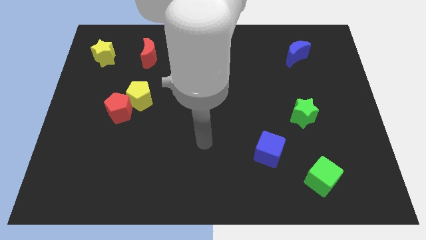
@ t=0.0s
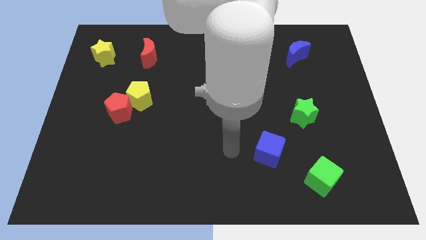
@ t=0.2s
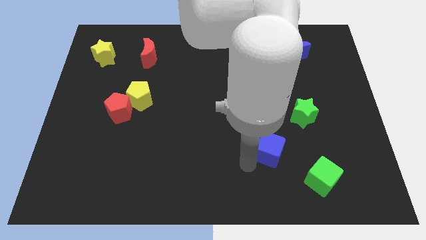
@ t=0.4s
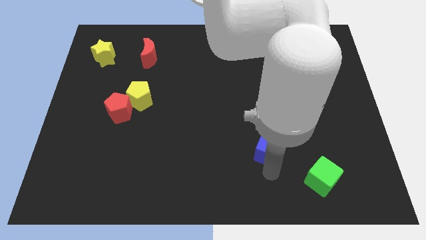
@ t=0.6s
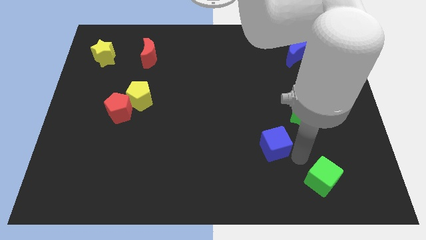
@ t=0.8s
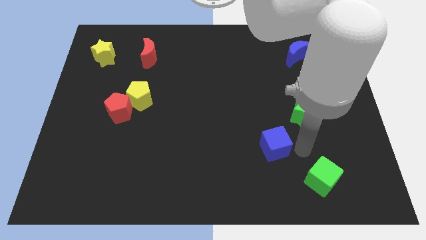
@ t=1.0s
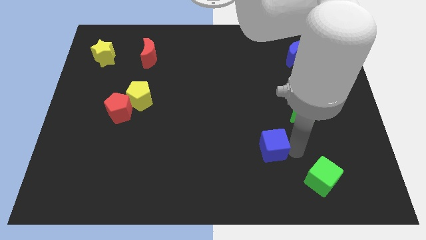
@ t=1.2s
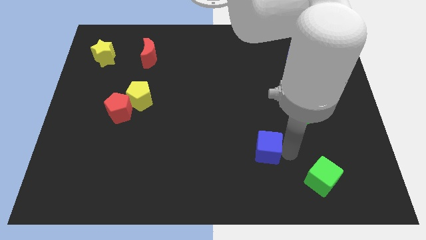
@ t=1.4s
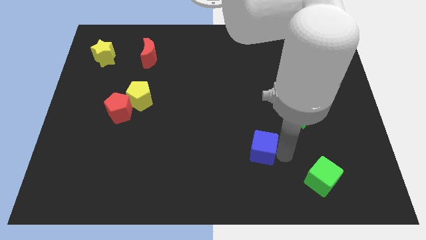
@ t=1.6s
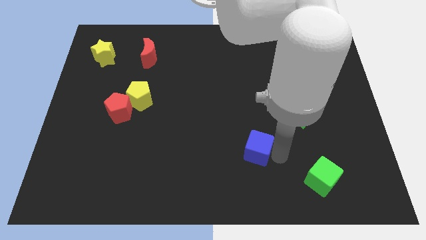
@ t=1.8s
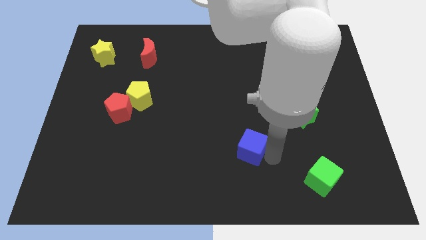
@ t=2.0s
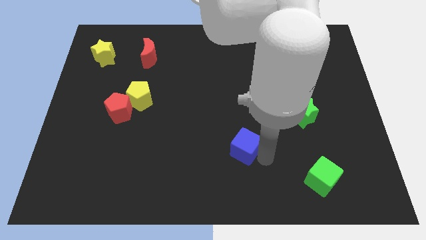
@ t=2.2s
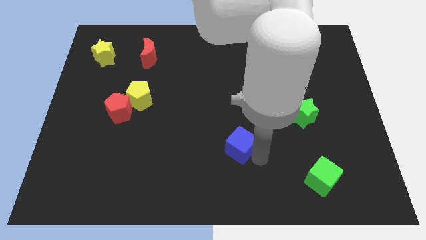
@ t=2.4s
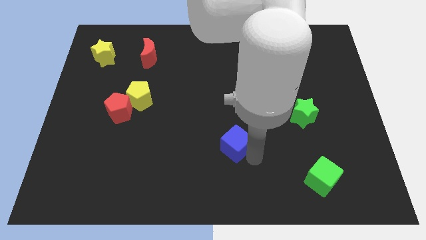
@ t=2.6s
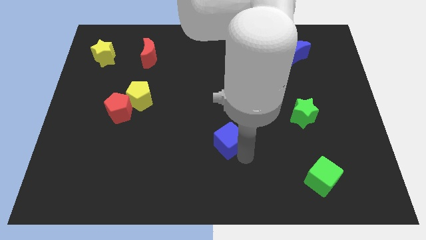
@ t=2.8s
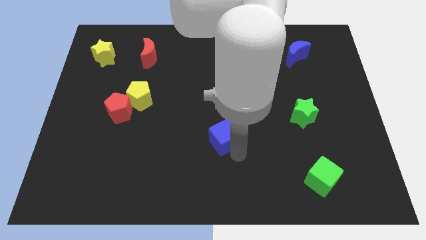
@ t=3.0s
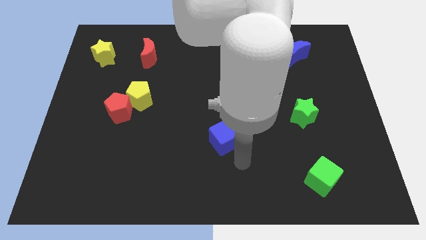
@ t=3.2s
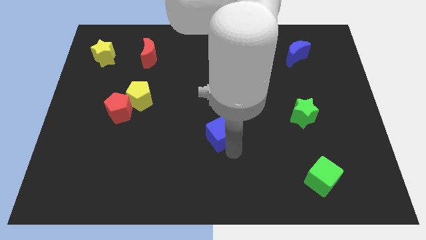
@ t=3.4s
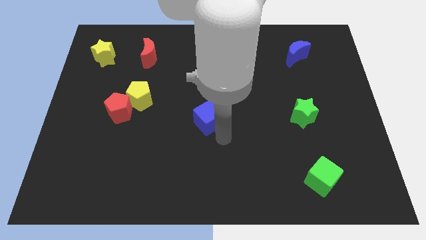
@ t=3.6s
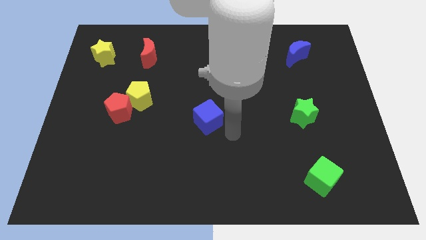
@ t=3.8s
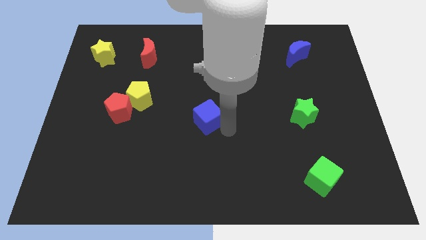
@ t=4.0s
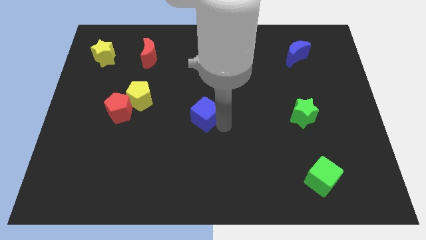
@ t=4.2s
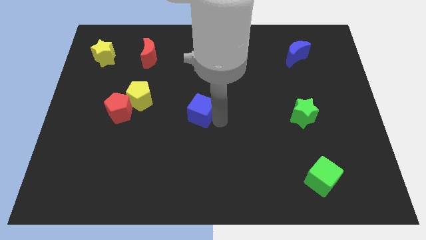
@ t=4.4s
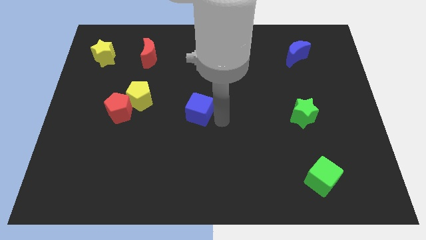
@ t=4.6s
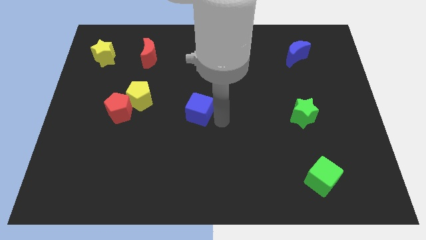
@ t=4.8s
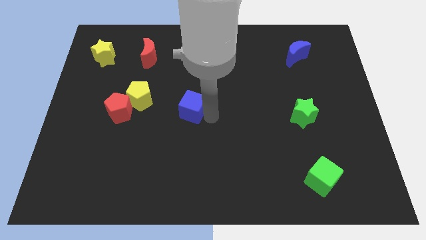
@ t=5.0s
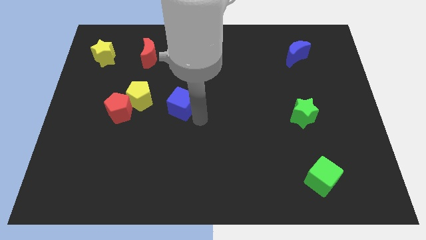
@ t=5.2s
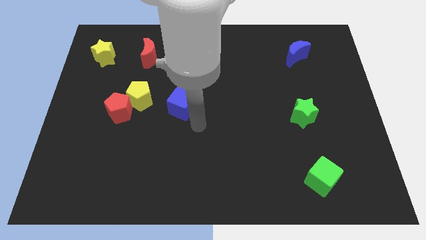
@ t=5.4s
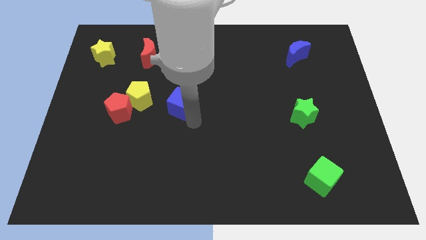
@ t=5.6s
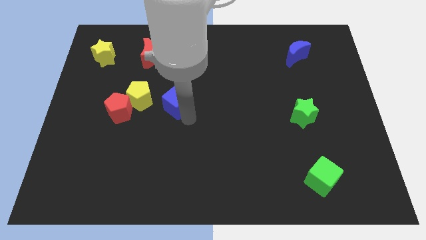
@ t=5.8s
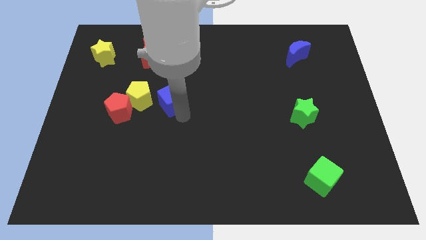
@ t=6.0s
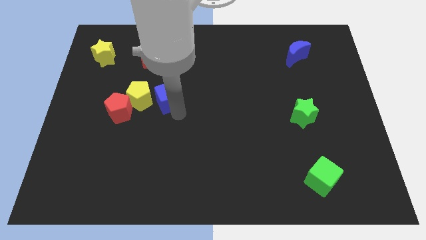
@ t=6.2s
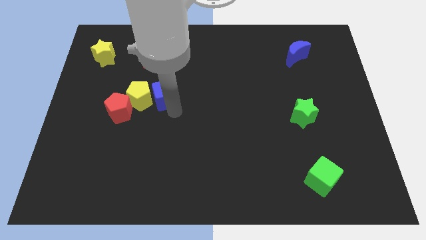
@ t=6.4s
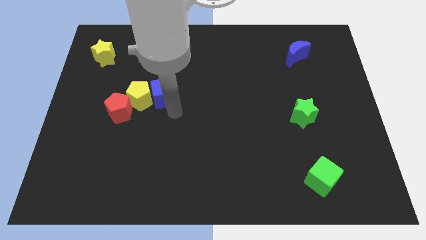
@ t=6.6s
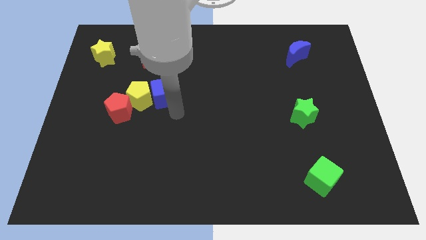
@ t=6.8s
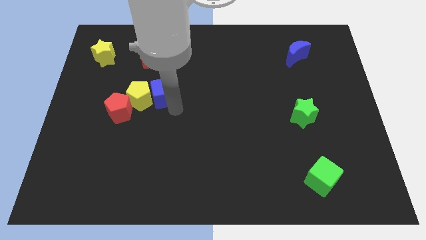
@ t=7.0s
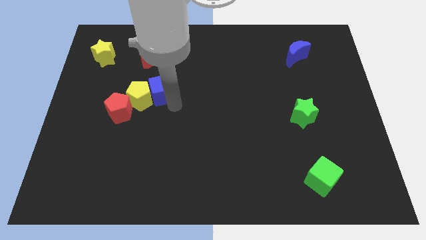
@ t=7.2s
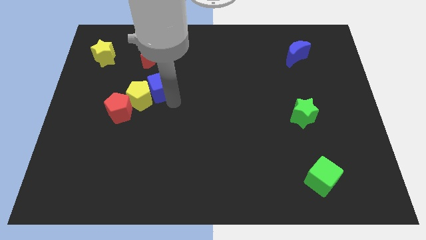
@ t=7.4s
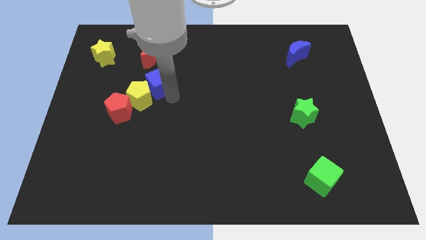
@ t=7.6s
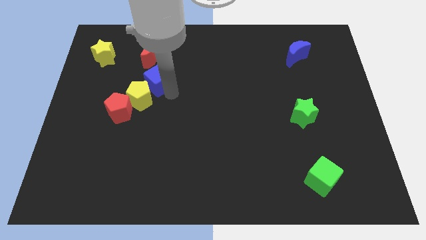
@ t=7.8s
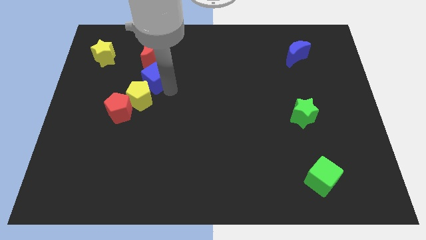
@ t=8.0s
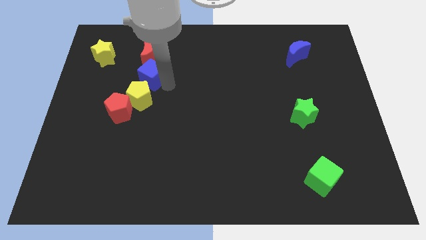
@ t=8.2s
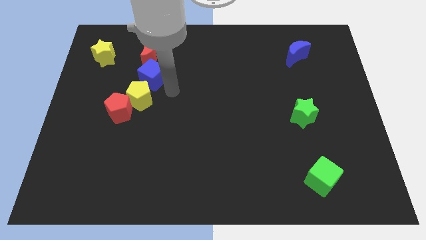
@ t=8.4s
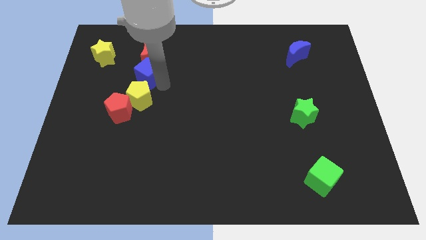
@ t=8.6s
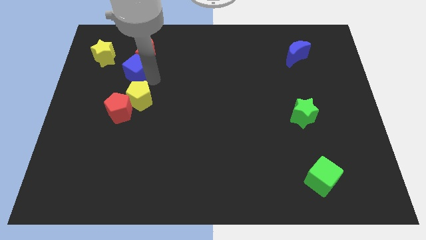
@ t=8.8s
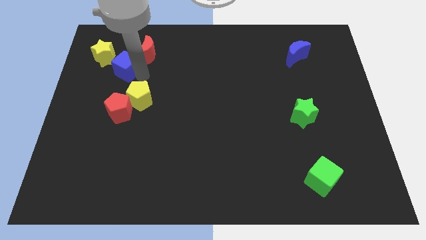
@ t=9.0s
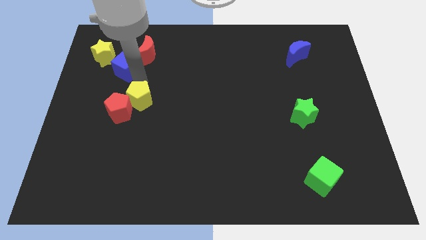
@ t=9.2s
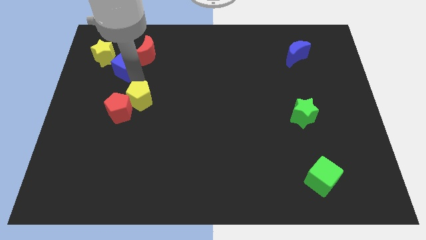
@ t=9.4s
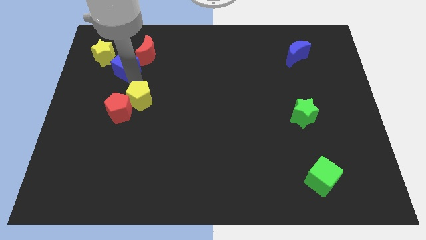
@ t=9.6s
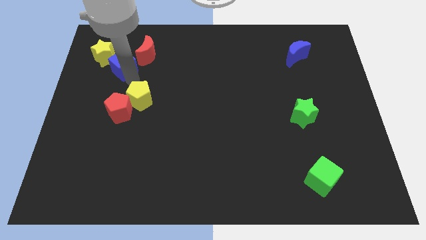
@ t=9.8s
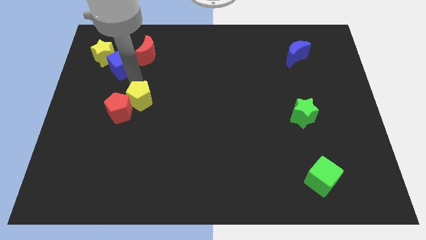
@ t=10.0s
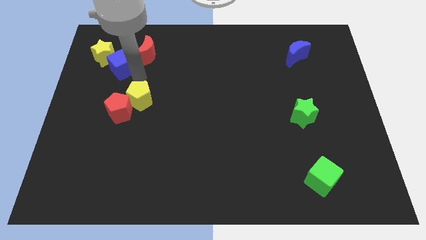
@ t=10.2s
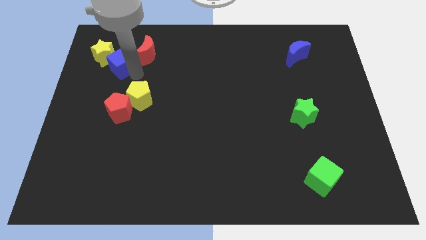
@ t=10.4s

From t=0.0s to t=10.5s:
slide the blue cube next to the yellow star
